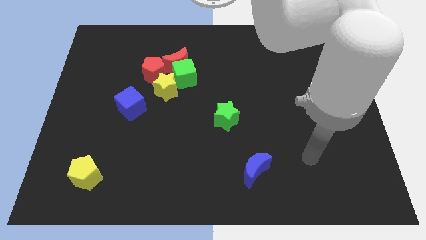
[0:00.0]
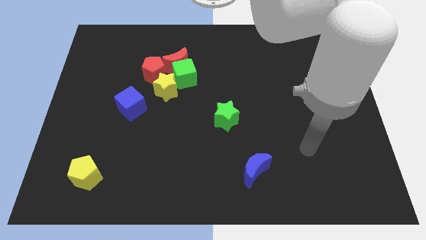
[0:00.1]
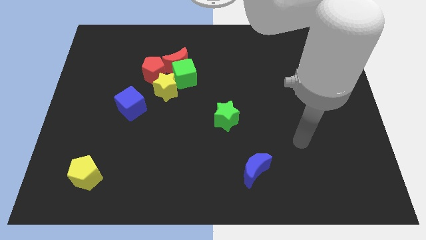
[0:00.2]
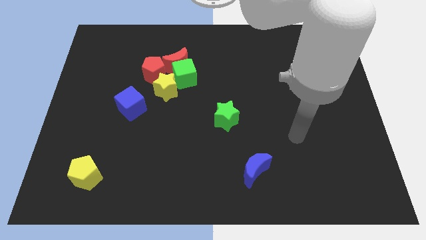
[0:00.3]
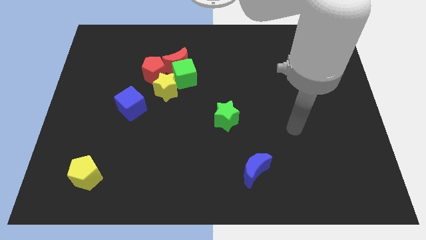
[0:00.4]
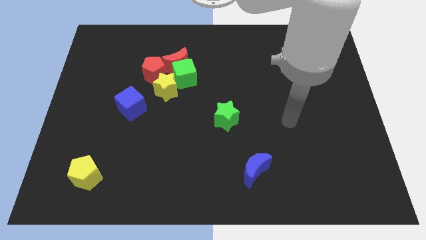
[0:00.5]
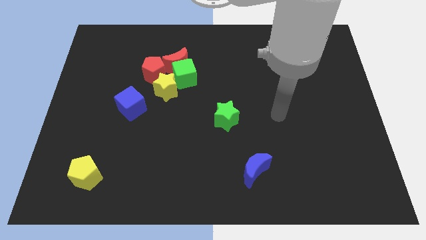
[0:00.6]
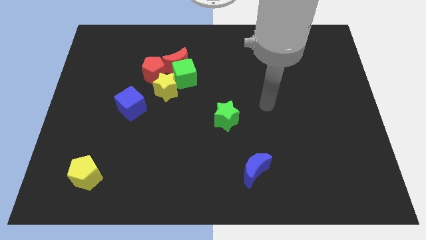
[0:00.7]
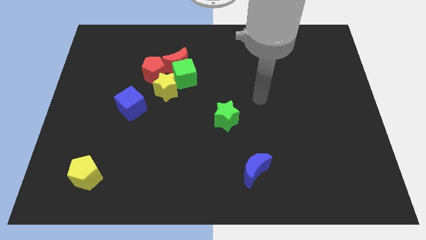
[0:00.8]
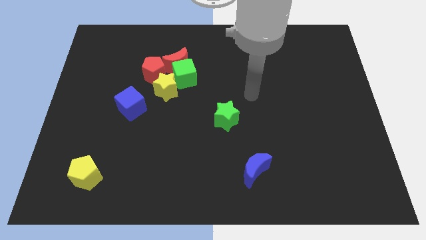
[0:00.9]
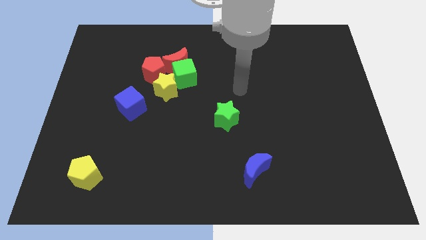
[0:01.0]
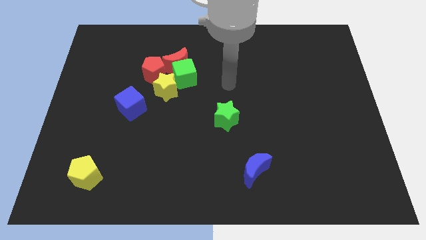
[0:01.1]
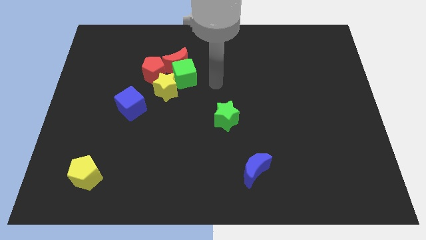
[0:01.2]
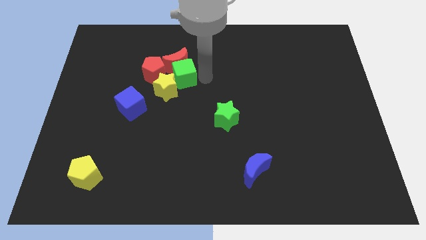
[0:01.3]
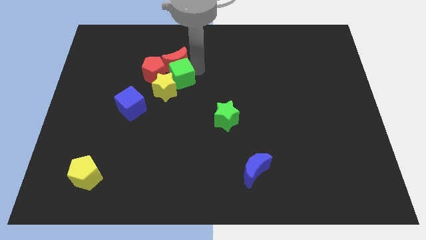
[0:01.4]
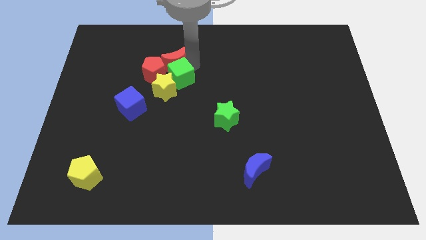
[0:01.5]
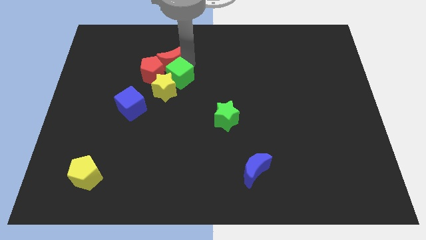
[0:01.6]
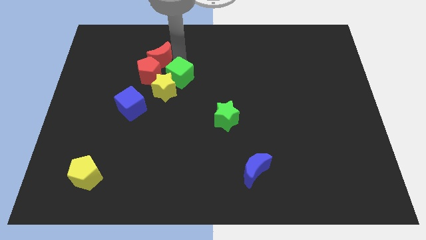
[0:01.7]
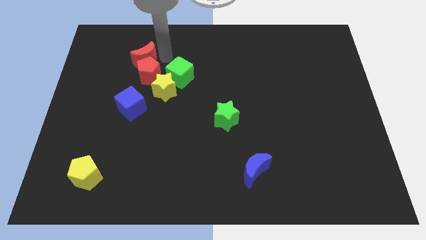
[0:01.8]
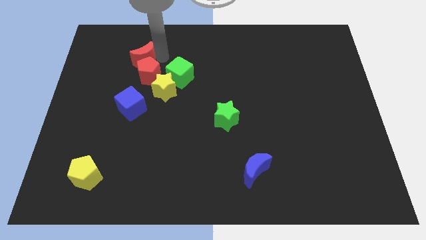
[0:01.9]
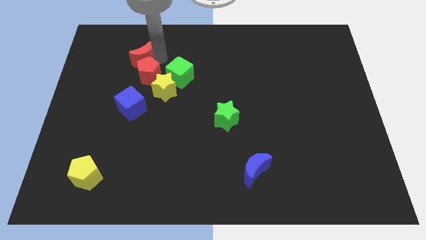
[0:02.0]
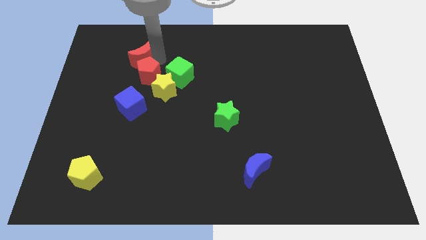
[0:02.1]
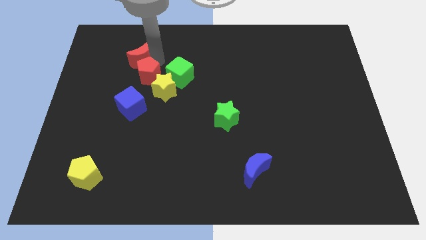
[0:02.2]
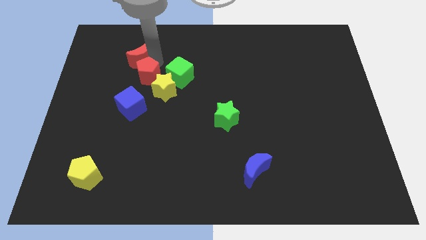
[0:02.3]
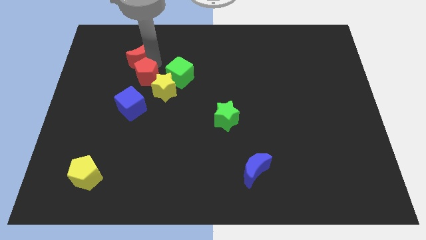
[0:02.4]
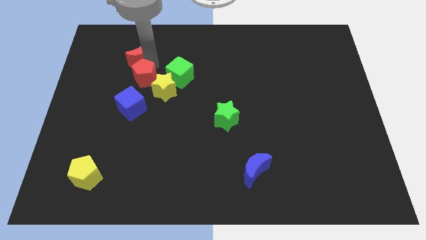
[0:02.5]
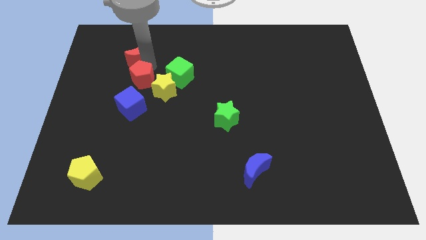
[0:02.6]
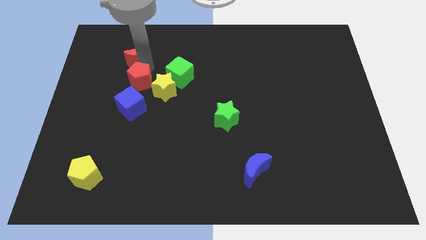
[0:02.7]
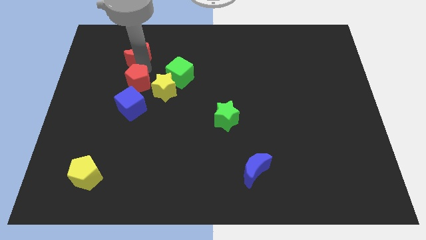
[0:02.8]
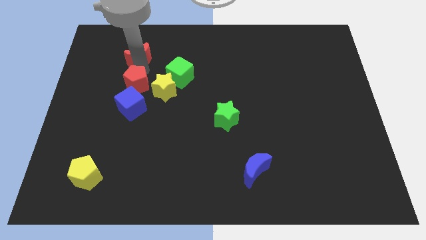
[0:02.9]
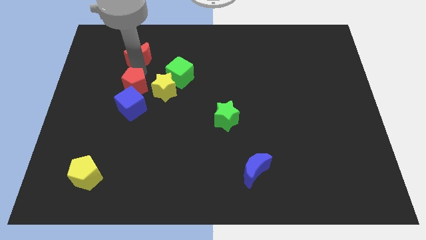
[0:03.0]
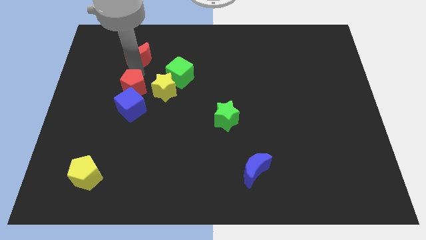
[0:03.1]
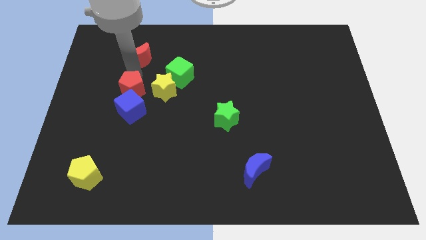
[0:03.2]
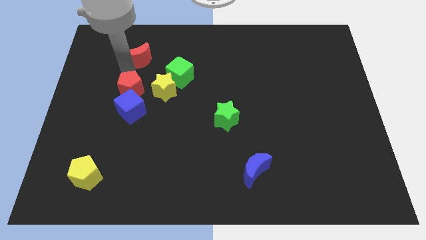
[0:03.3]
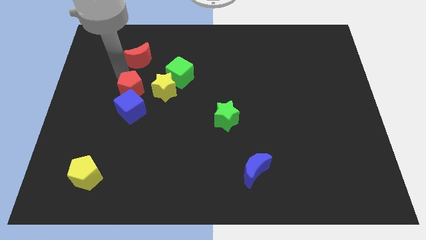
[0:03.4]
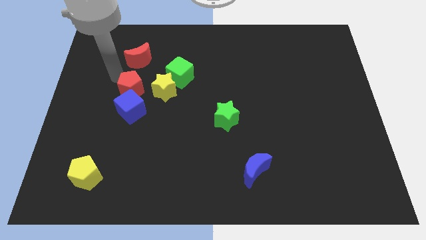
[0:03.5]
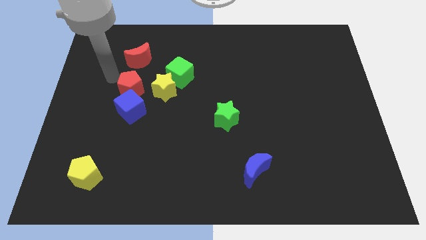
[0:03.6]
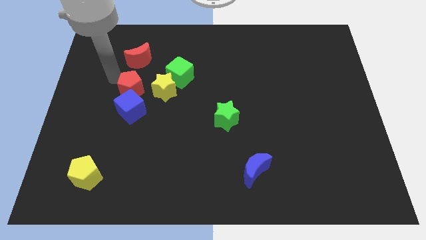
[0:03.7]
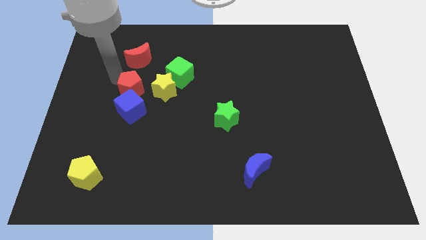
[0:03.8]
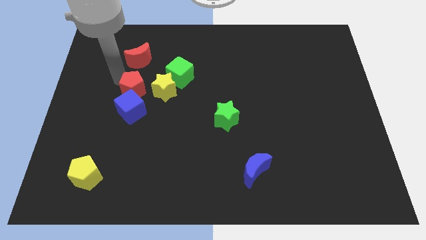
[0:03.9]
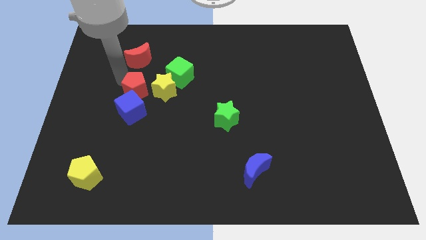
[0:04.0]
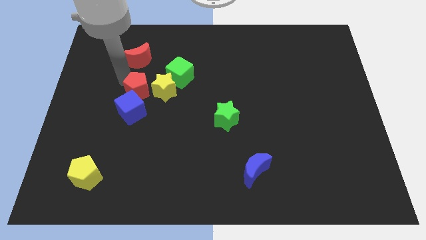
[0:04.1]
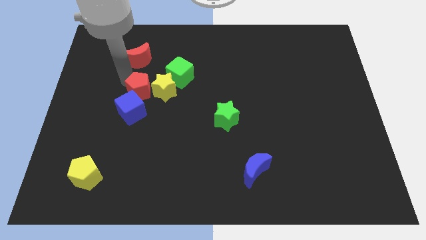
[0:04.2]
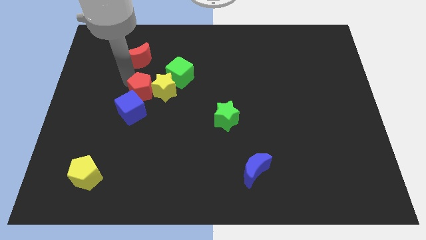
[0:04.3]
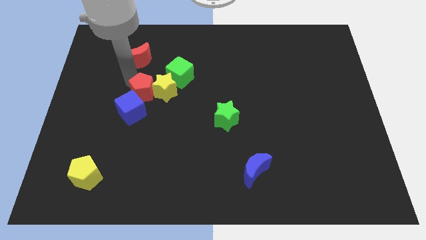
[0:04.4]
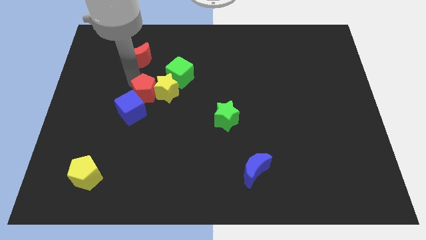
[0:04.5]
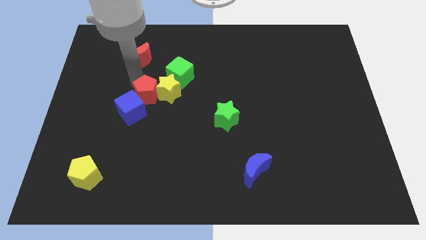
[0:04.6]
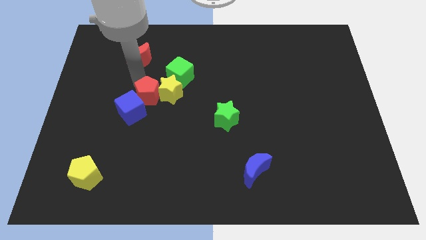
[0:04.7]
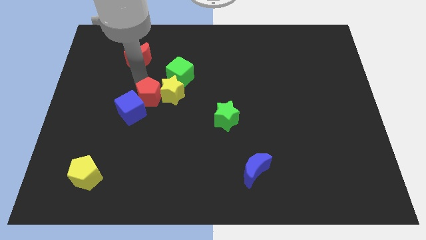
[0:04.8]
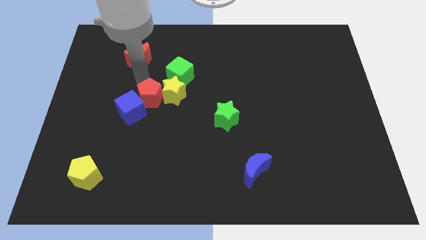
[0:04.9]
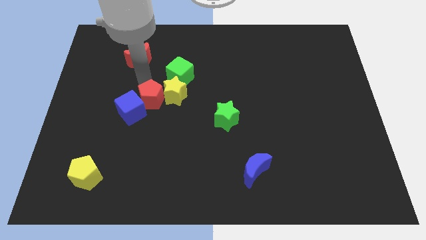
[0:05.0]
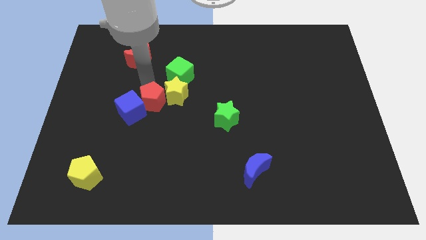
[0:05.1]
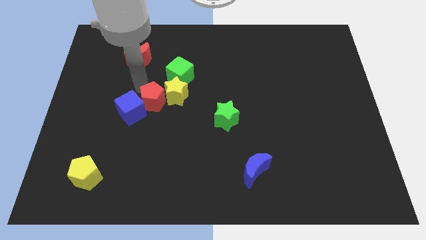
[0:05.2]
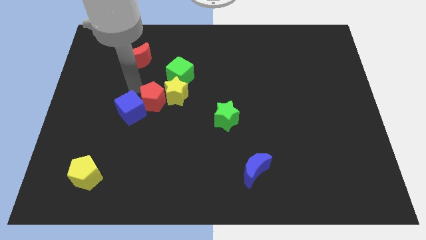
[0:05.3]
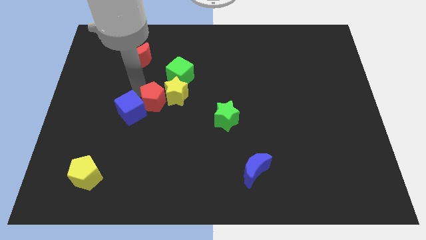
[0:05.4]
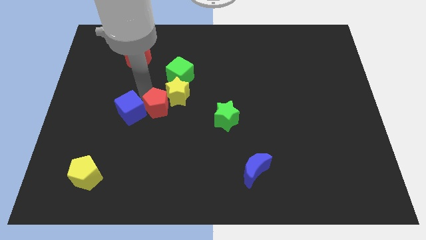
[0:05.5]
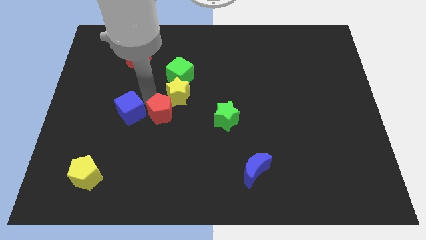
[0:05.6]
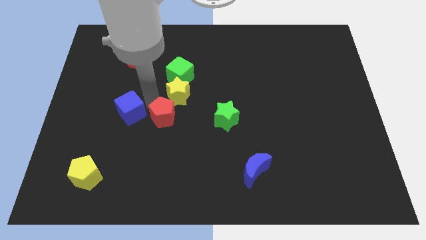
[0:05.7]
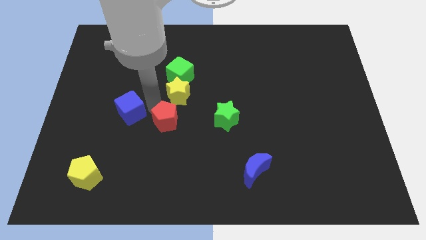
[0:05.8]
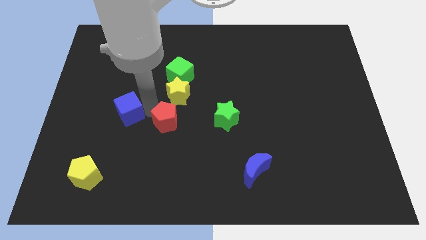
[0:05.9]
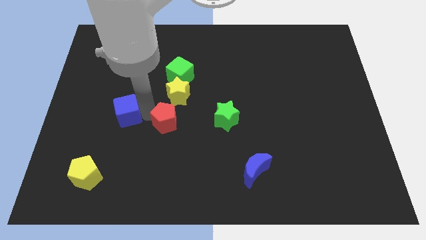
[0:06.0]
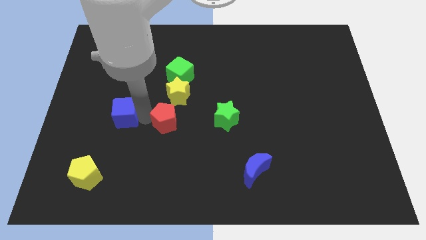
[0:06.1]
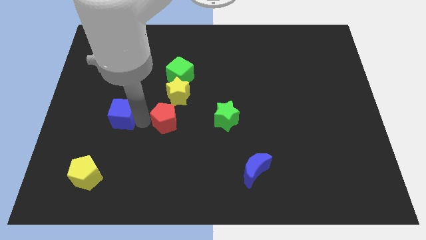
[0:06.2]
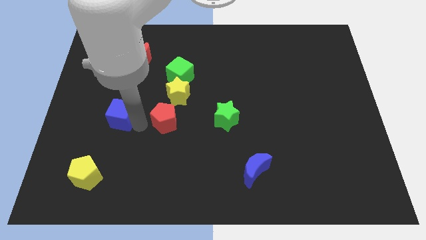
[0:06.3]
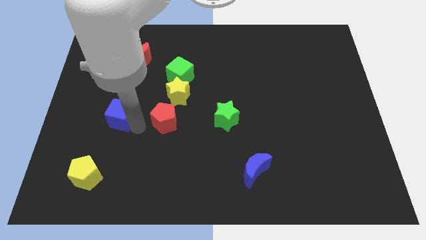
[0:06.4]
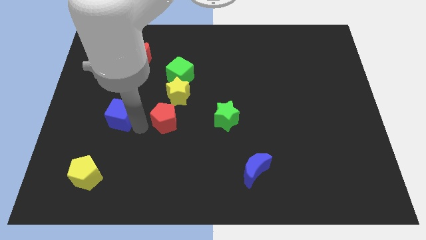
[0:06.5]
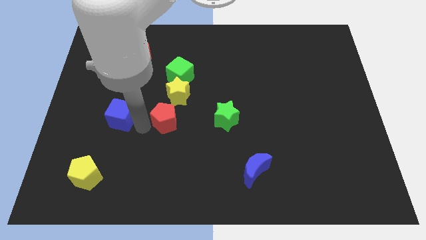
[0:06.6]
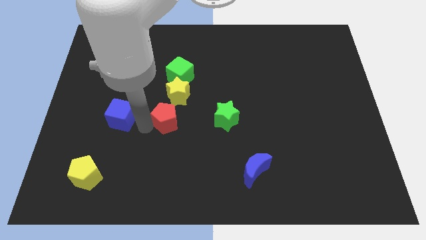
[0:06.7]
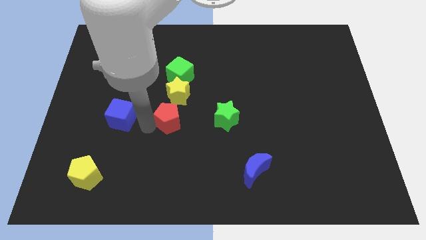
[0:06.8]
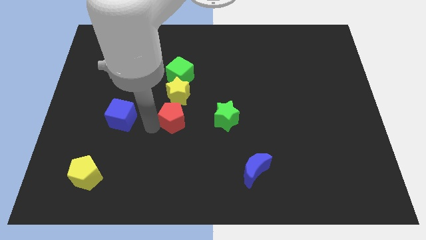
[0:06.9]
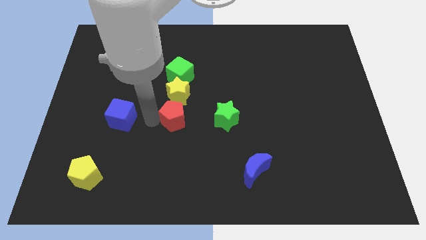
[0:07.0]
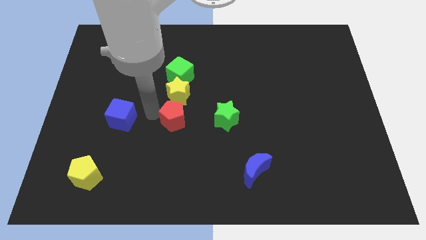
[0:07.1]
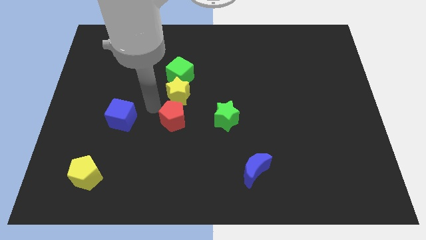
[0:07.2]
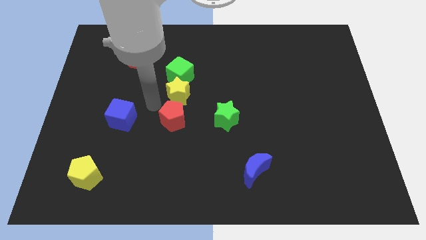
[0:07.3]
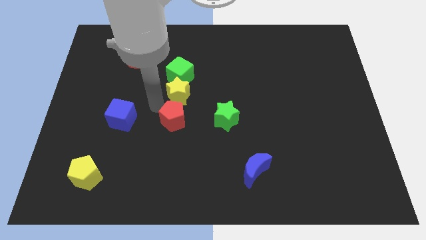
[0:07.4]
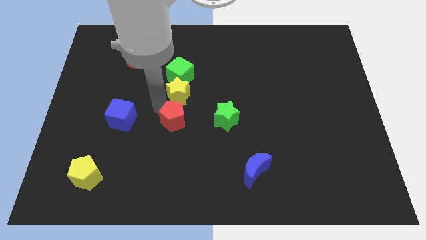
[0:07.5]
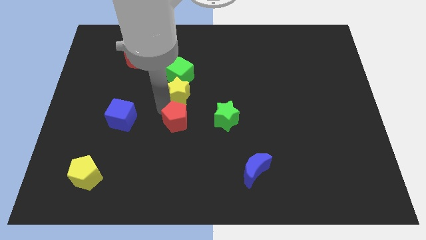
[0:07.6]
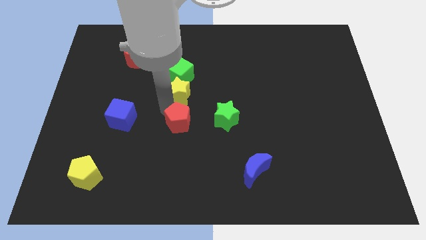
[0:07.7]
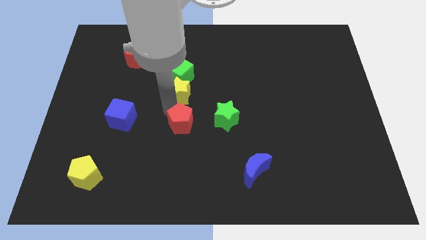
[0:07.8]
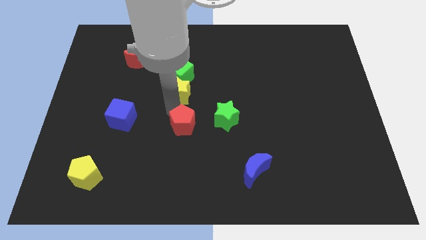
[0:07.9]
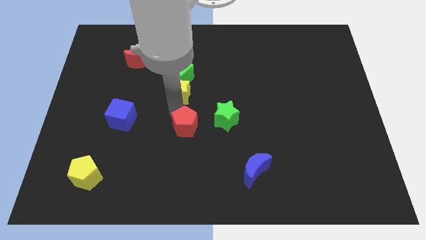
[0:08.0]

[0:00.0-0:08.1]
push the red pentagon diagonally down and to the left of the green star
